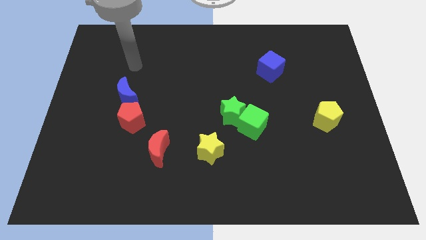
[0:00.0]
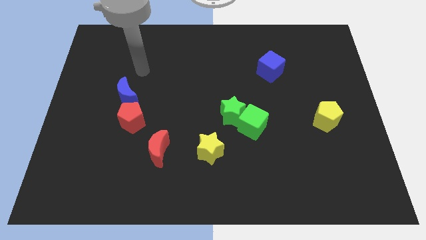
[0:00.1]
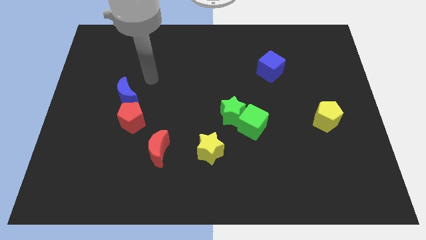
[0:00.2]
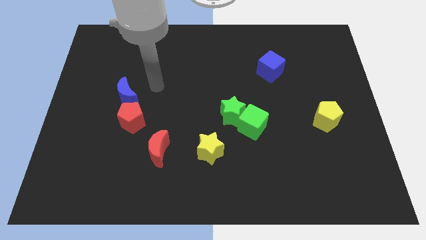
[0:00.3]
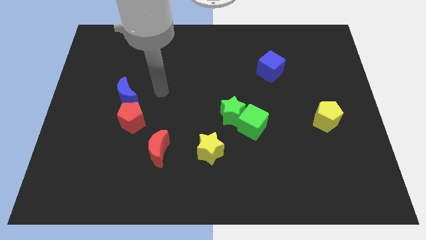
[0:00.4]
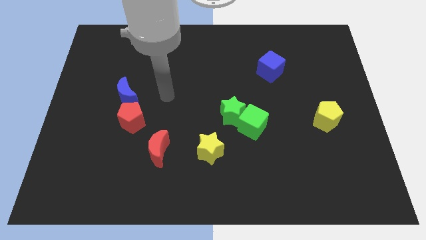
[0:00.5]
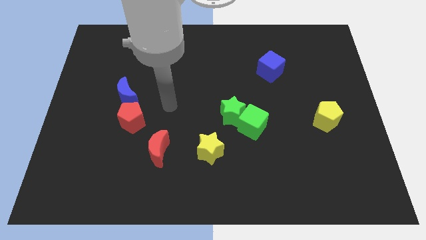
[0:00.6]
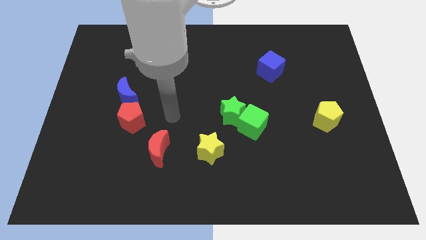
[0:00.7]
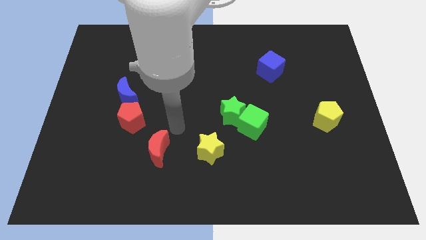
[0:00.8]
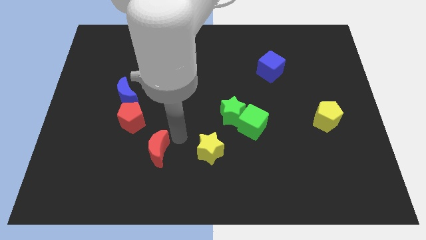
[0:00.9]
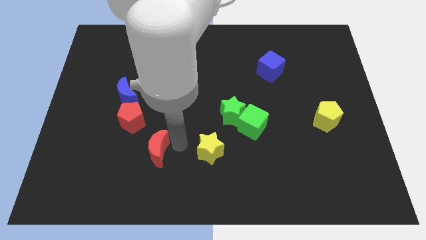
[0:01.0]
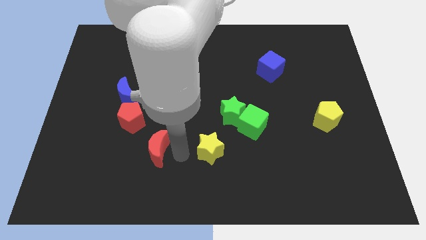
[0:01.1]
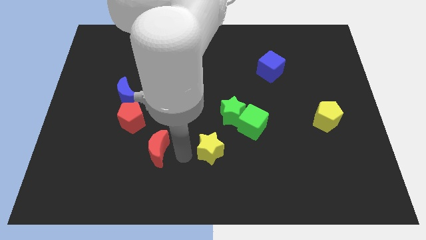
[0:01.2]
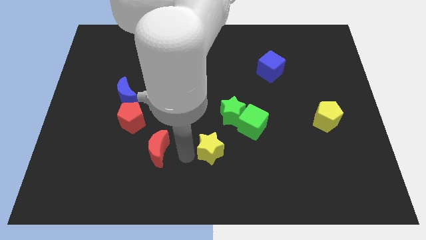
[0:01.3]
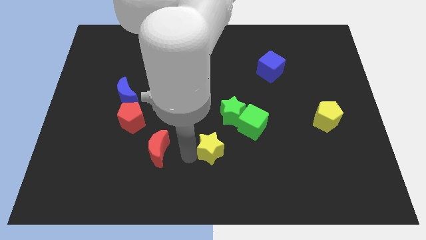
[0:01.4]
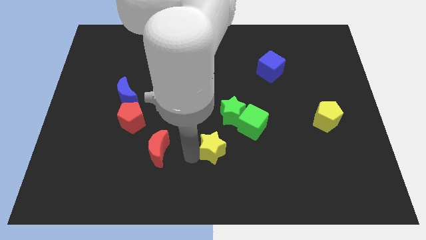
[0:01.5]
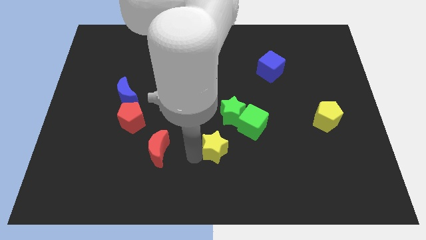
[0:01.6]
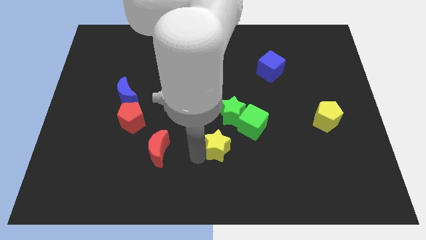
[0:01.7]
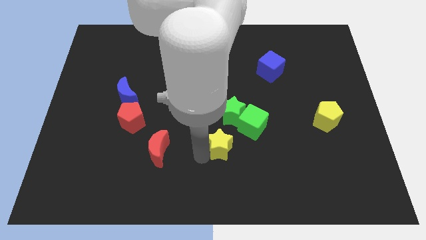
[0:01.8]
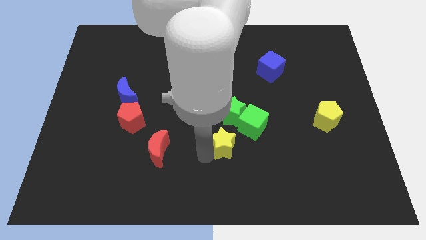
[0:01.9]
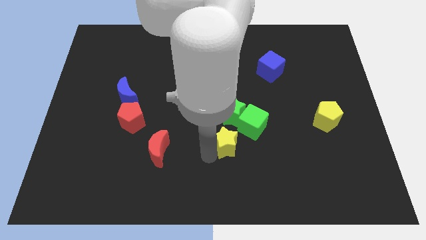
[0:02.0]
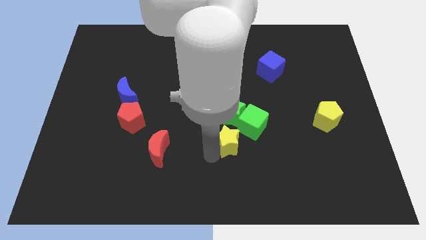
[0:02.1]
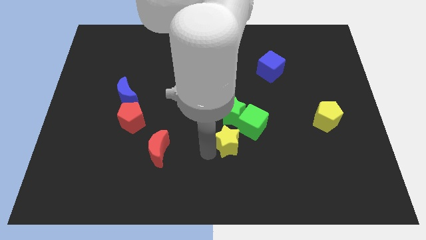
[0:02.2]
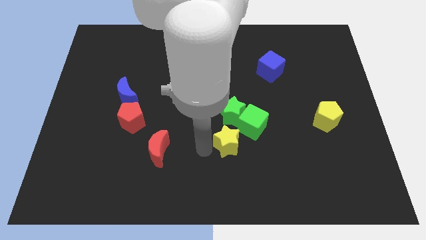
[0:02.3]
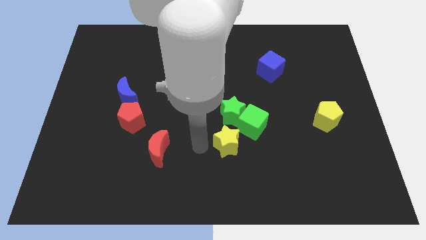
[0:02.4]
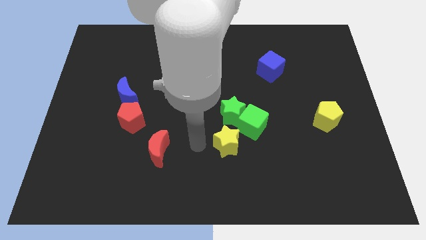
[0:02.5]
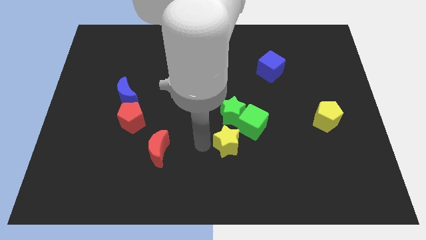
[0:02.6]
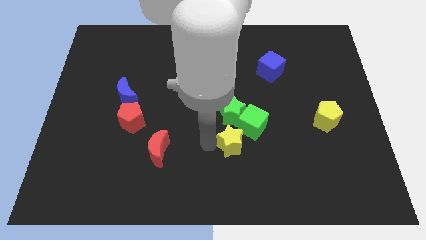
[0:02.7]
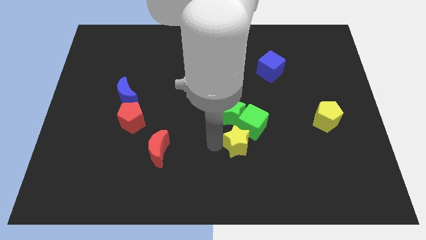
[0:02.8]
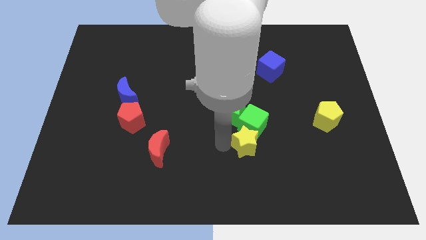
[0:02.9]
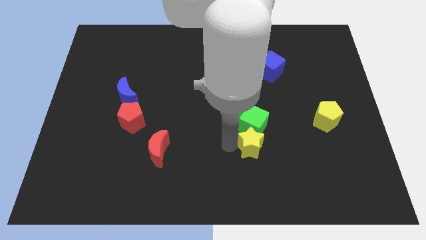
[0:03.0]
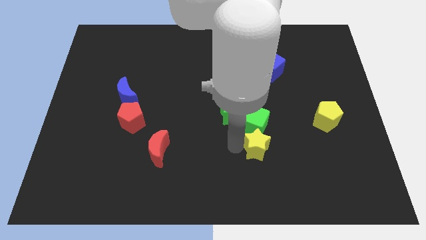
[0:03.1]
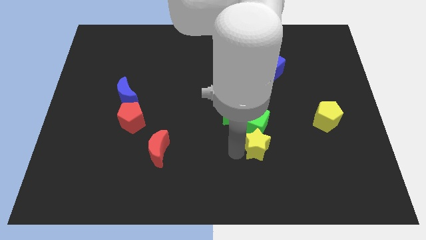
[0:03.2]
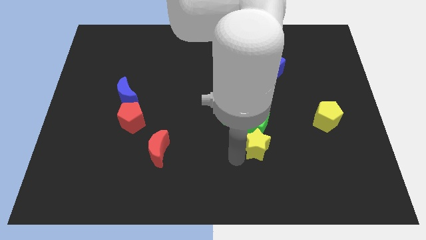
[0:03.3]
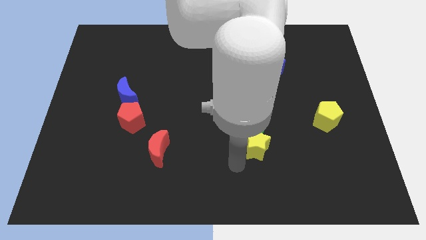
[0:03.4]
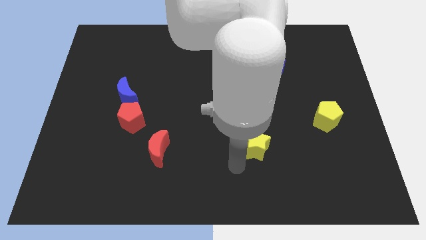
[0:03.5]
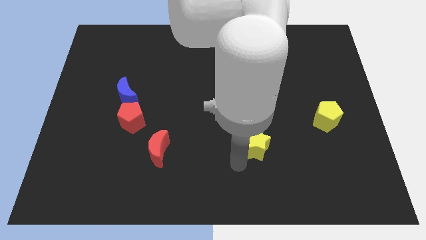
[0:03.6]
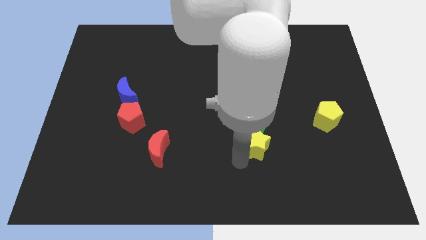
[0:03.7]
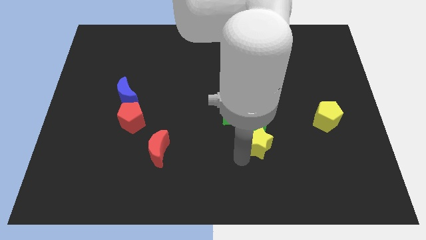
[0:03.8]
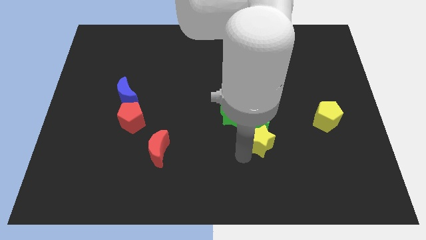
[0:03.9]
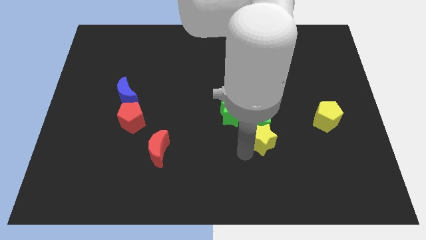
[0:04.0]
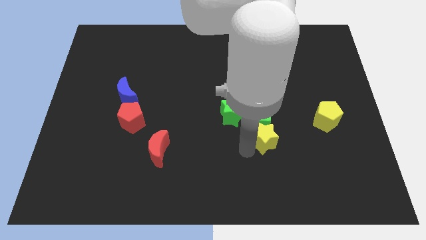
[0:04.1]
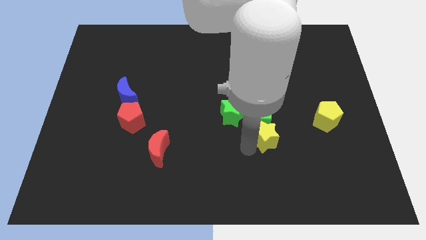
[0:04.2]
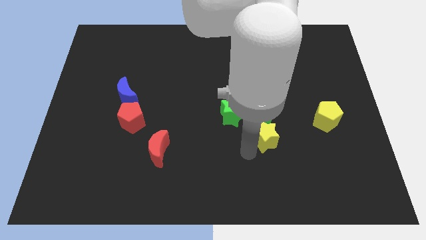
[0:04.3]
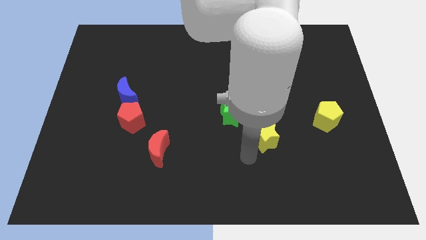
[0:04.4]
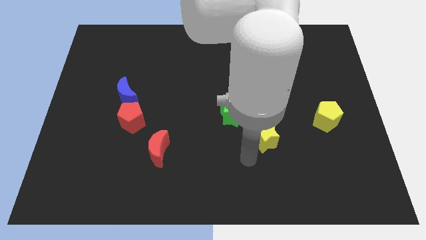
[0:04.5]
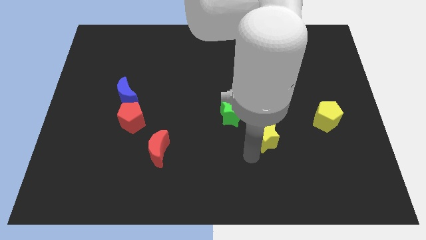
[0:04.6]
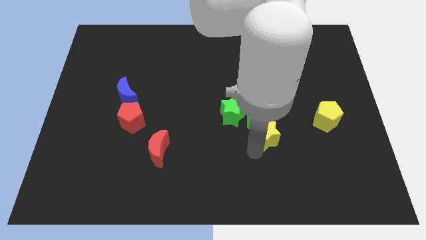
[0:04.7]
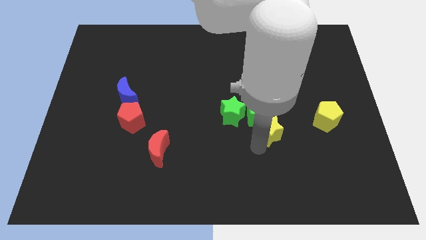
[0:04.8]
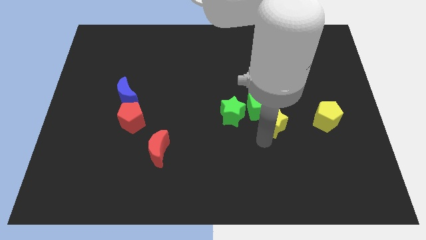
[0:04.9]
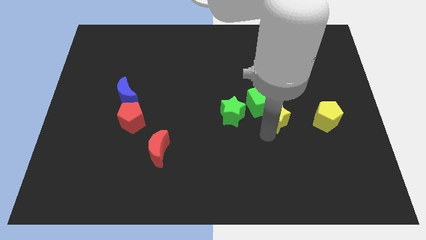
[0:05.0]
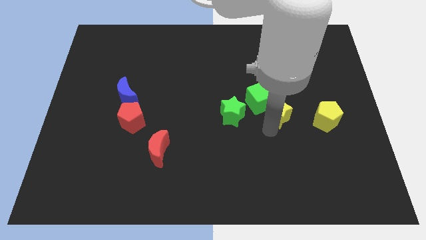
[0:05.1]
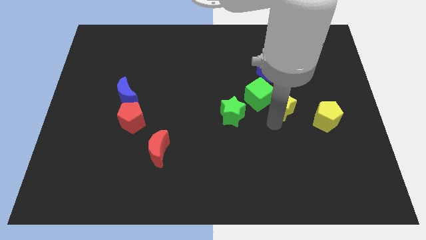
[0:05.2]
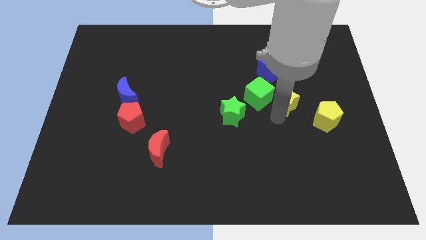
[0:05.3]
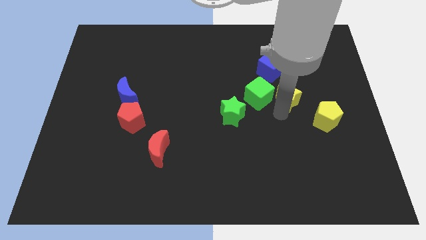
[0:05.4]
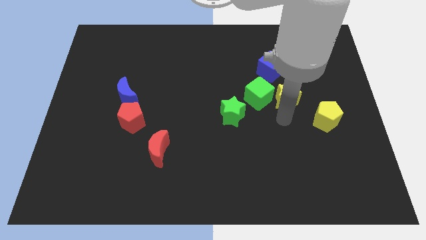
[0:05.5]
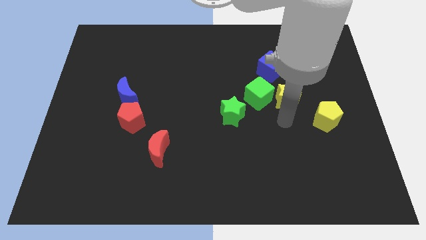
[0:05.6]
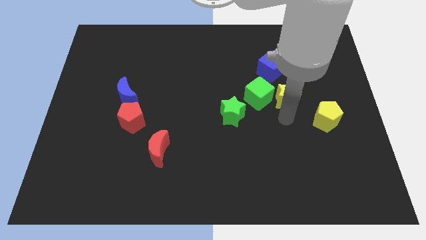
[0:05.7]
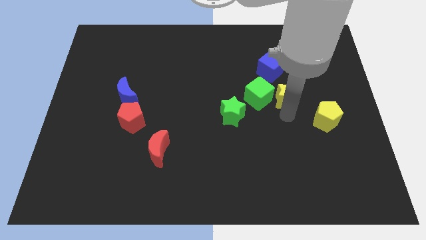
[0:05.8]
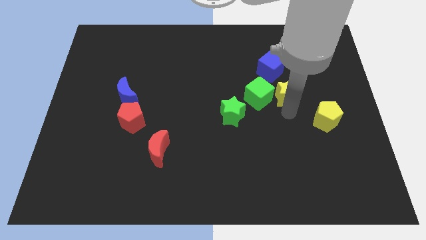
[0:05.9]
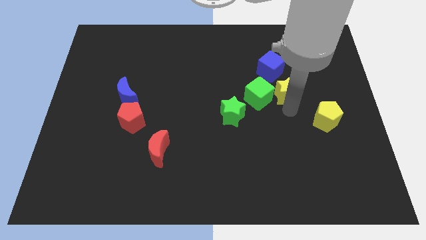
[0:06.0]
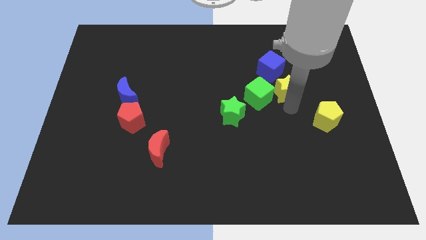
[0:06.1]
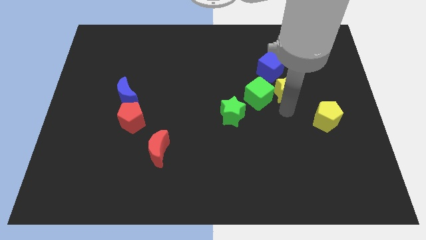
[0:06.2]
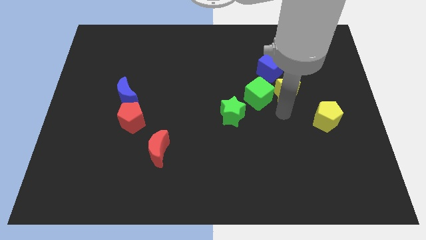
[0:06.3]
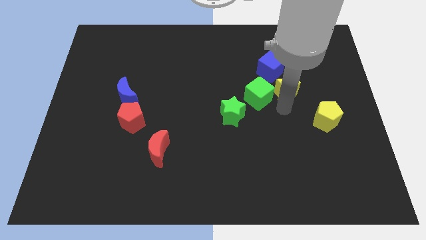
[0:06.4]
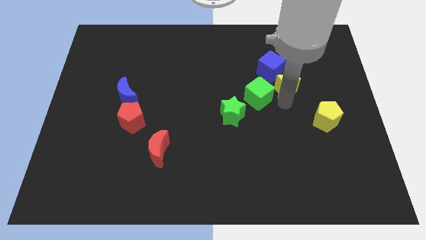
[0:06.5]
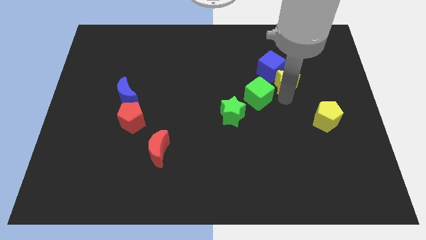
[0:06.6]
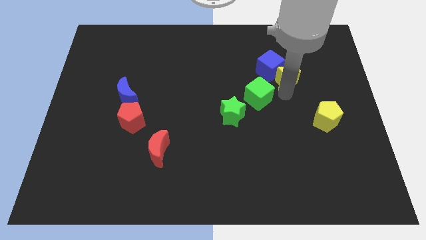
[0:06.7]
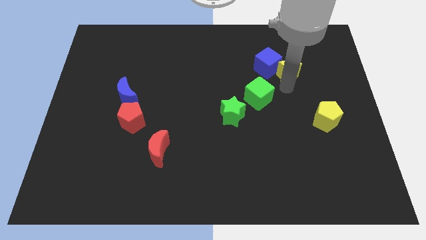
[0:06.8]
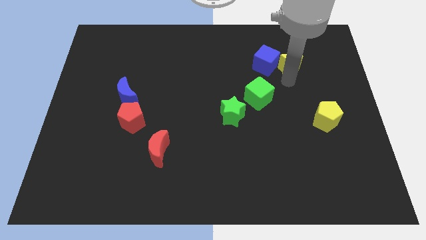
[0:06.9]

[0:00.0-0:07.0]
move the yellow star to the top right of the blue cube
